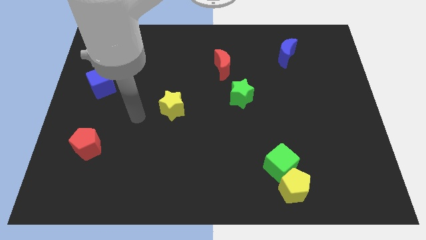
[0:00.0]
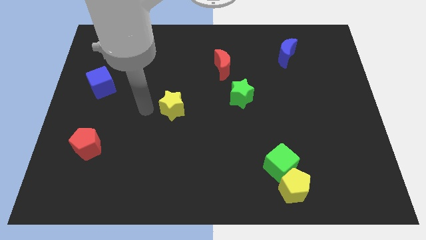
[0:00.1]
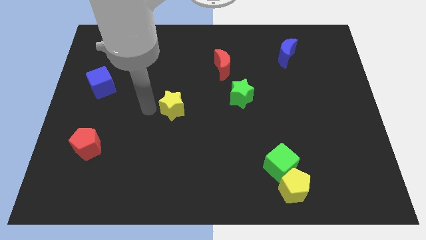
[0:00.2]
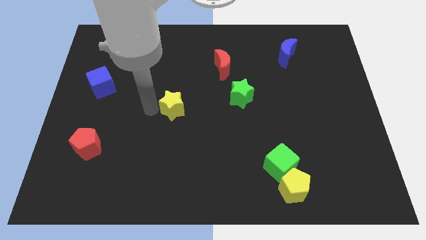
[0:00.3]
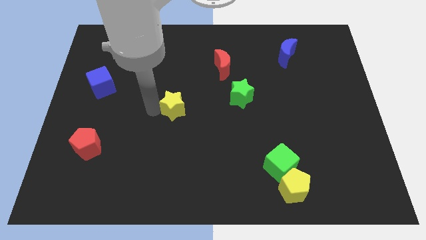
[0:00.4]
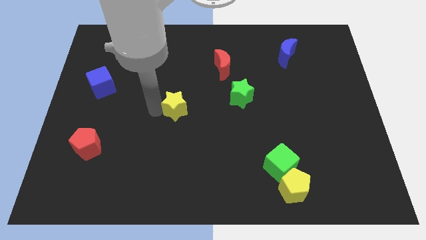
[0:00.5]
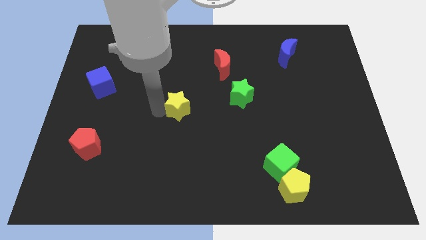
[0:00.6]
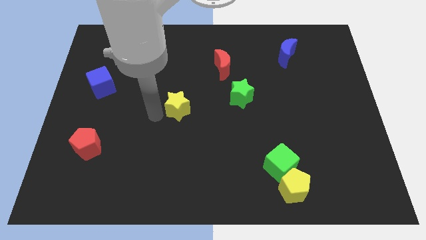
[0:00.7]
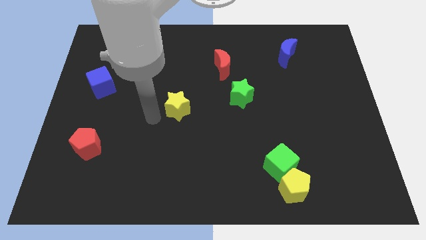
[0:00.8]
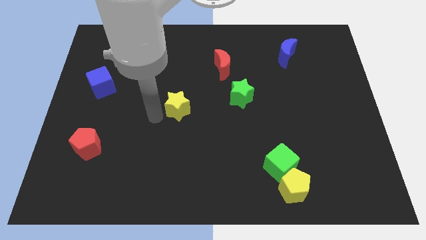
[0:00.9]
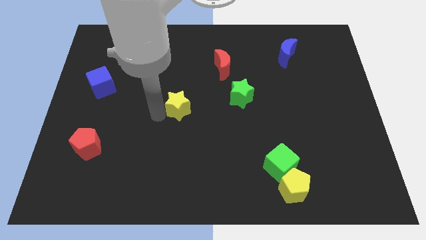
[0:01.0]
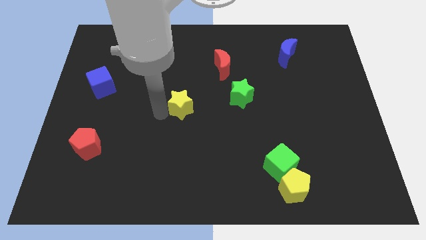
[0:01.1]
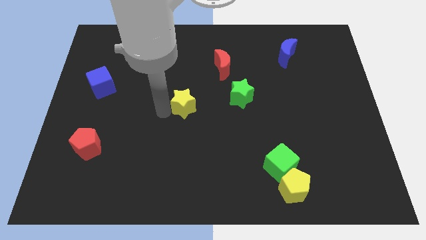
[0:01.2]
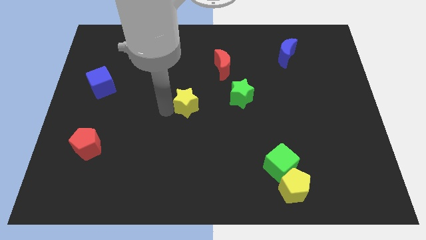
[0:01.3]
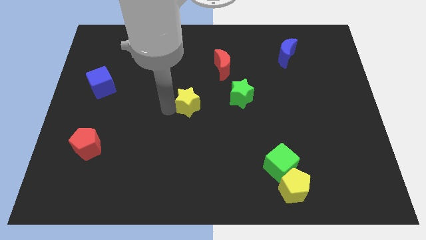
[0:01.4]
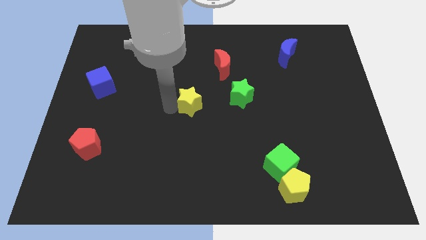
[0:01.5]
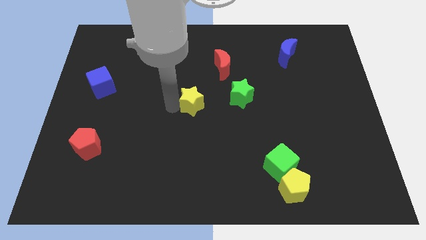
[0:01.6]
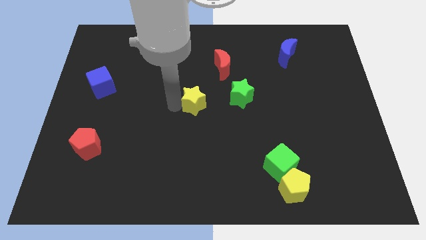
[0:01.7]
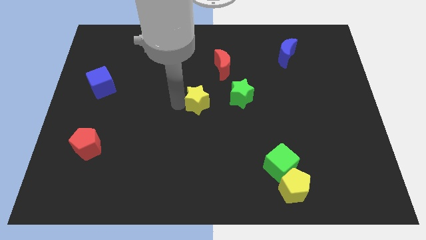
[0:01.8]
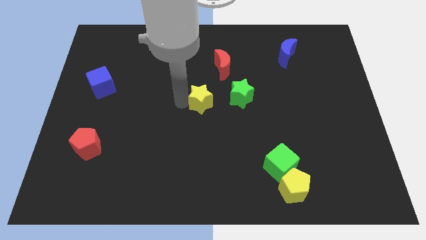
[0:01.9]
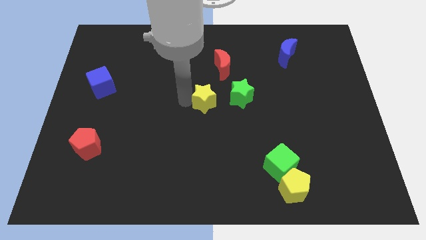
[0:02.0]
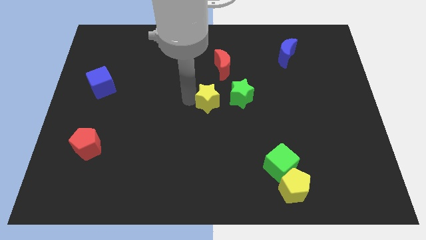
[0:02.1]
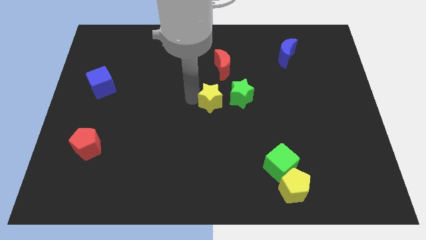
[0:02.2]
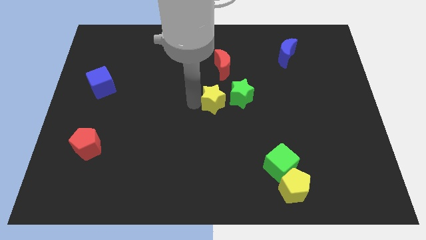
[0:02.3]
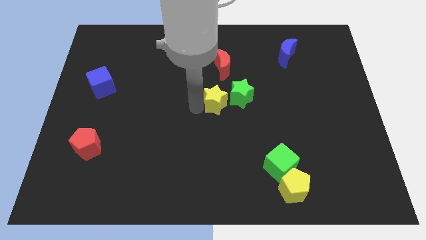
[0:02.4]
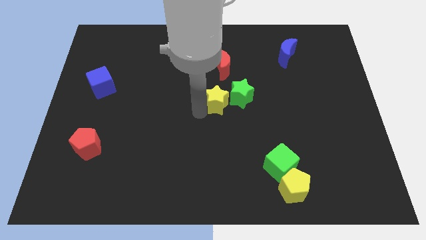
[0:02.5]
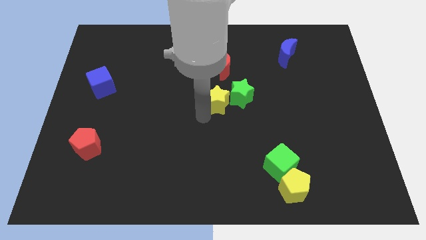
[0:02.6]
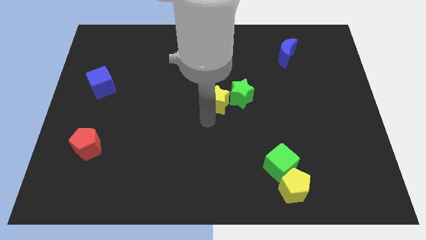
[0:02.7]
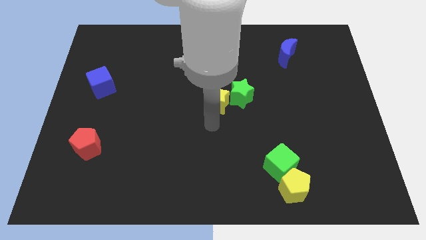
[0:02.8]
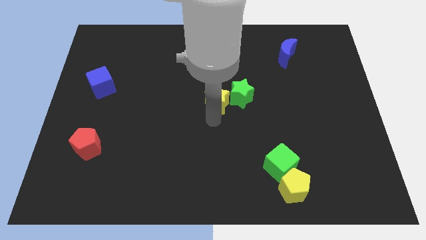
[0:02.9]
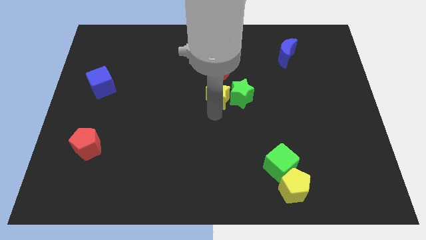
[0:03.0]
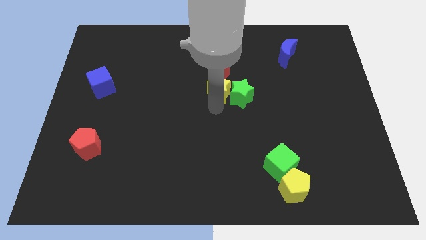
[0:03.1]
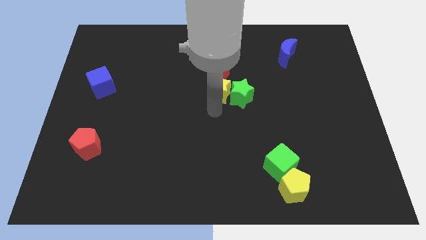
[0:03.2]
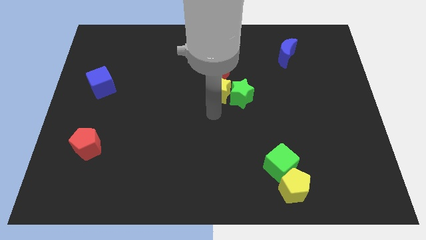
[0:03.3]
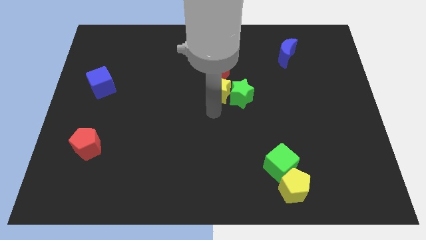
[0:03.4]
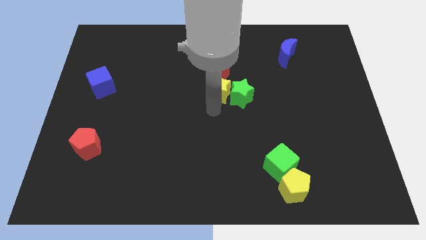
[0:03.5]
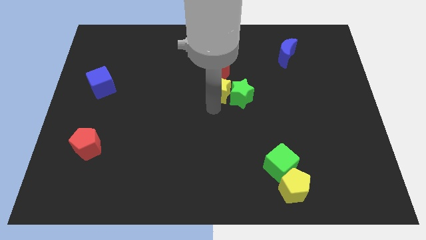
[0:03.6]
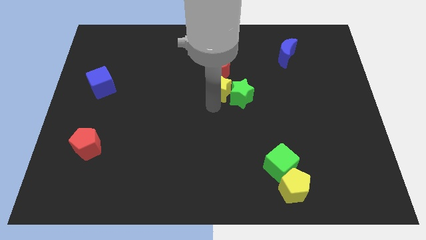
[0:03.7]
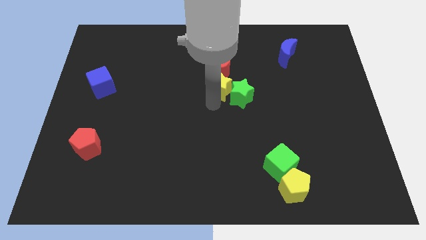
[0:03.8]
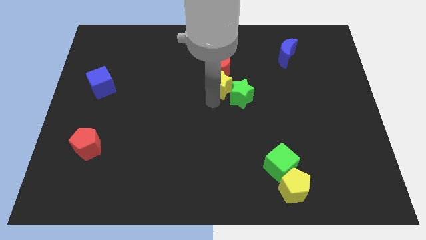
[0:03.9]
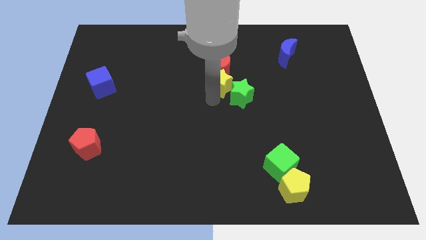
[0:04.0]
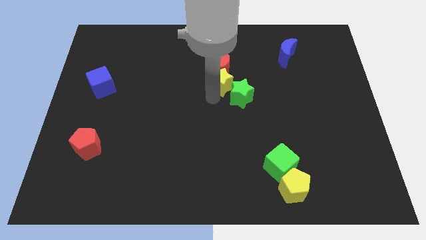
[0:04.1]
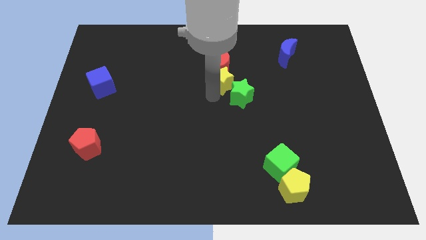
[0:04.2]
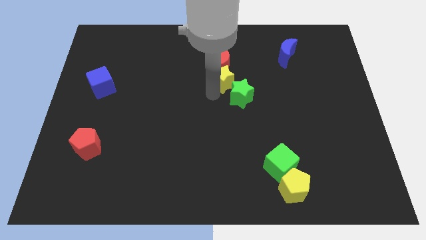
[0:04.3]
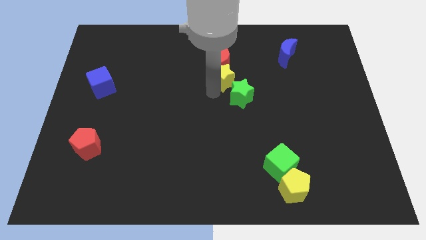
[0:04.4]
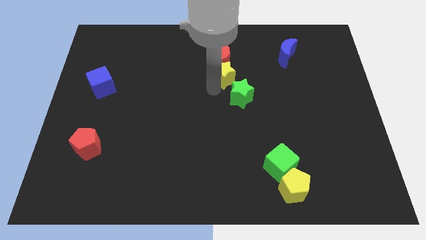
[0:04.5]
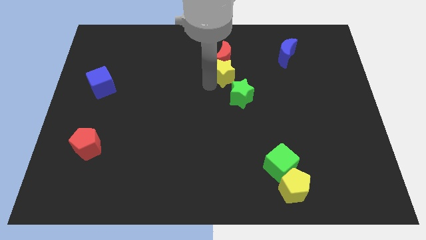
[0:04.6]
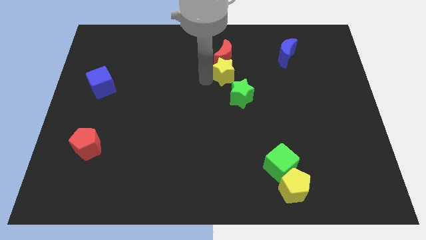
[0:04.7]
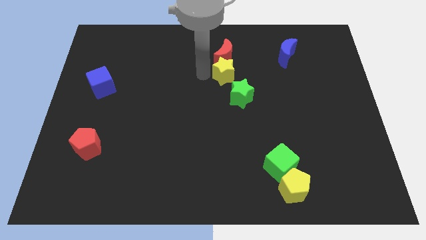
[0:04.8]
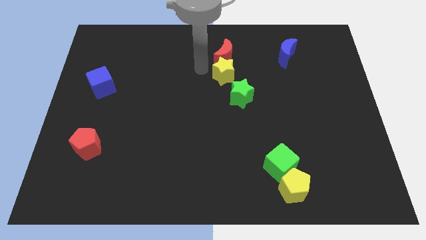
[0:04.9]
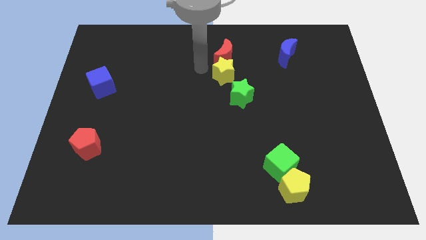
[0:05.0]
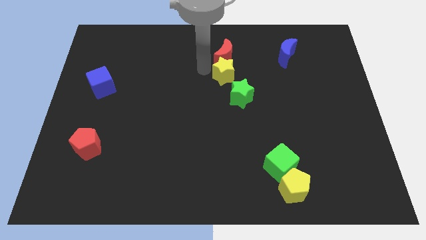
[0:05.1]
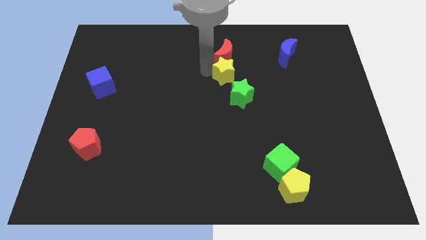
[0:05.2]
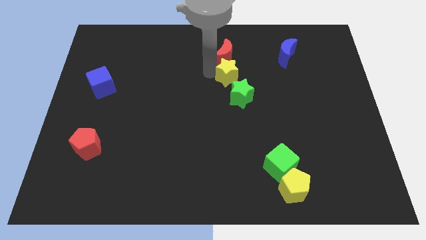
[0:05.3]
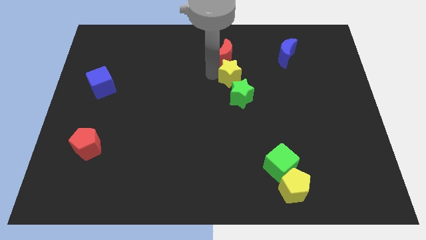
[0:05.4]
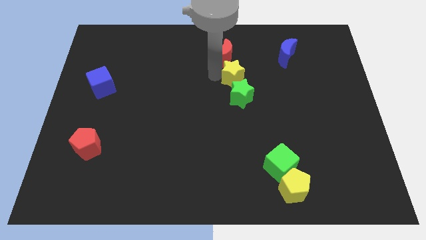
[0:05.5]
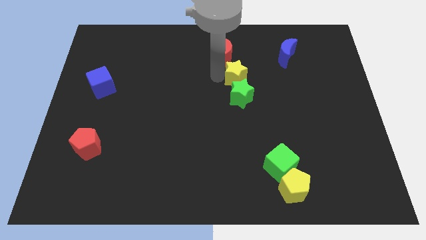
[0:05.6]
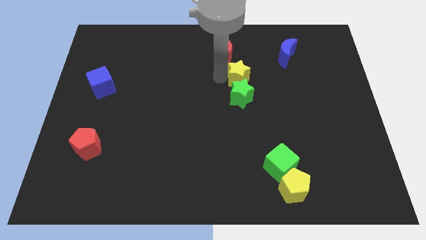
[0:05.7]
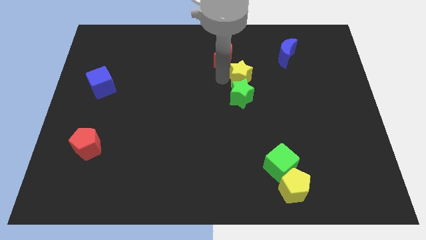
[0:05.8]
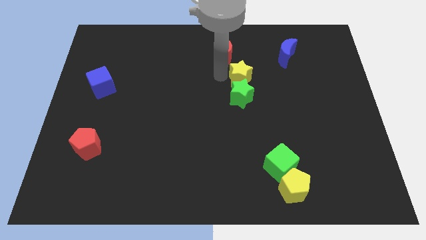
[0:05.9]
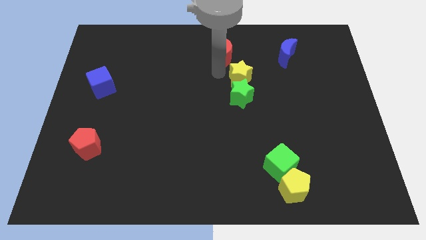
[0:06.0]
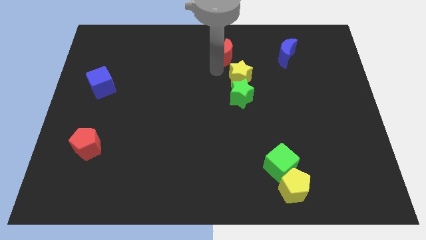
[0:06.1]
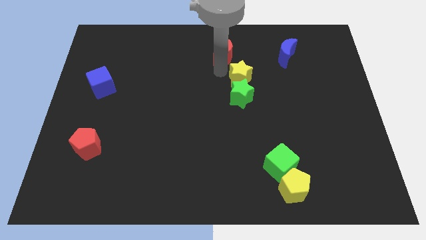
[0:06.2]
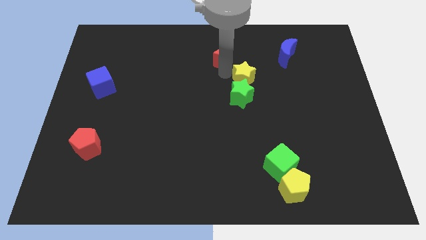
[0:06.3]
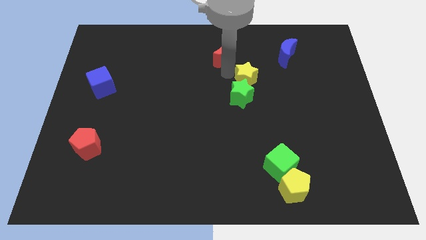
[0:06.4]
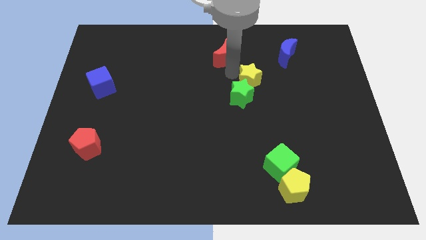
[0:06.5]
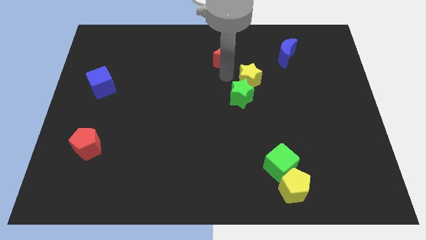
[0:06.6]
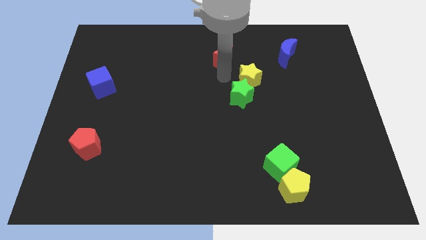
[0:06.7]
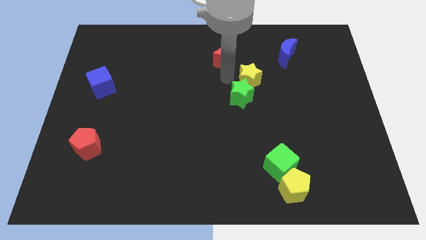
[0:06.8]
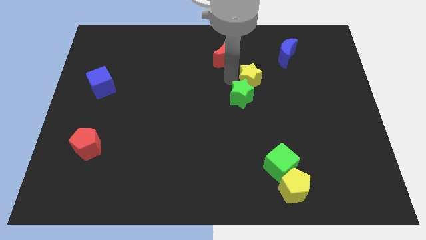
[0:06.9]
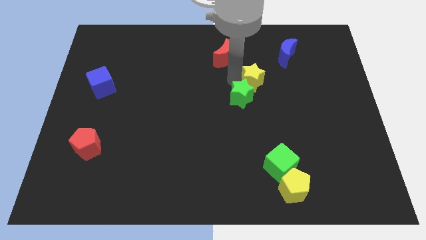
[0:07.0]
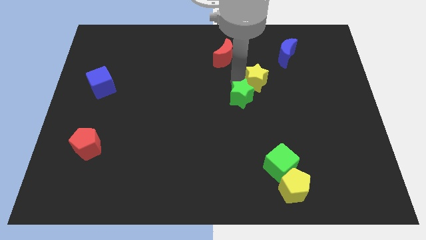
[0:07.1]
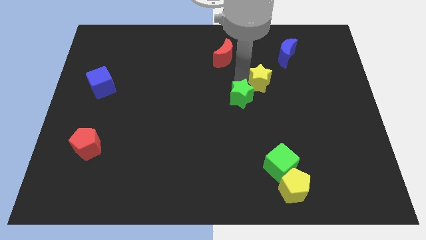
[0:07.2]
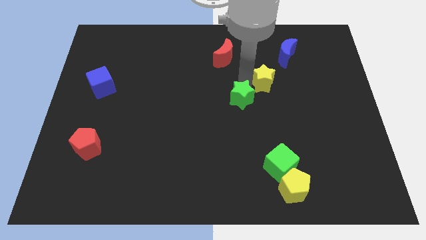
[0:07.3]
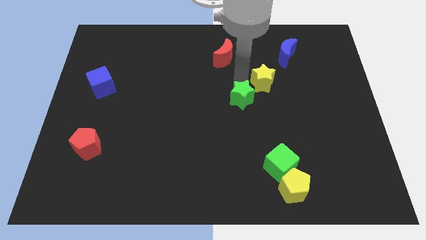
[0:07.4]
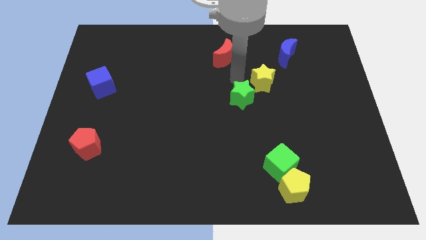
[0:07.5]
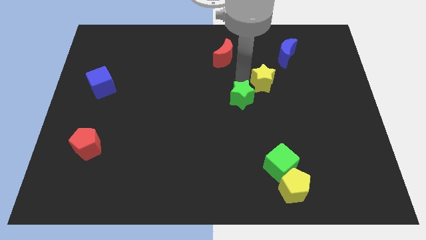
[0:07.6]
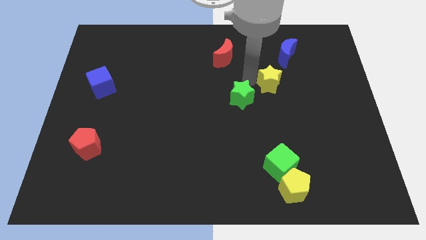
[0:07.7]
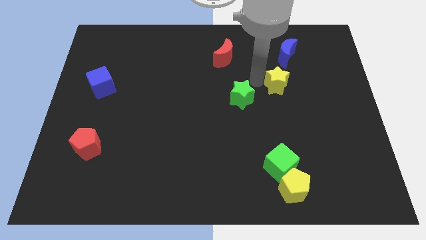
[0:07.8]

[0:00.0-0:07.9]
put the yellow star to the bottom side of the blue moon
